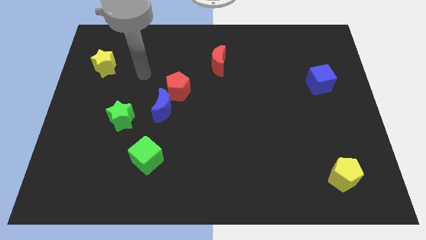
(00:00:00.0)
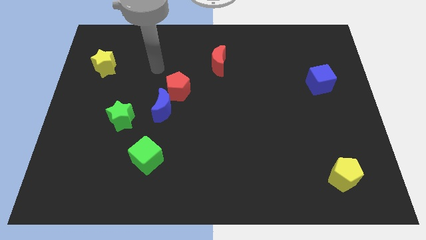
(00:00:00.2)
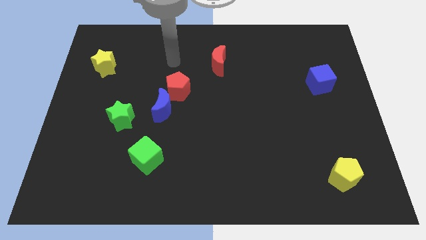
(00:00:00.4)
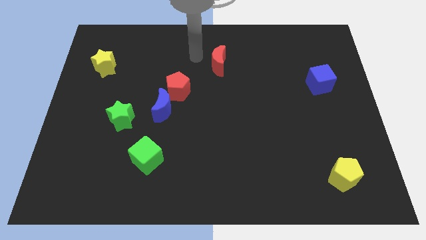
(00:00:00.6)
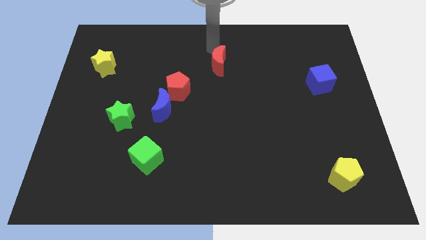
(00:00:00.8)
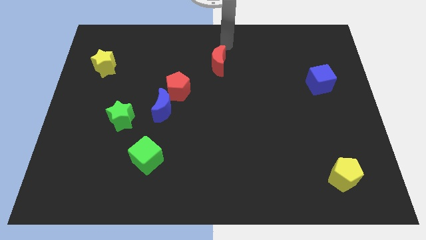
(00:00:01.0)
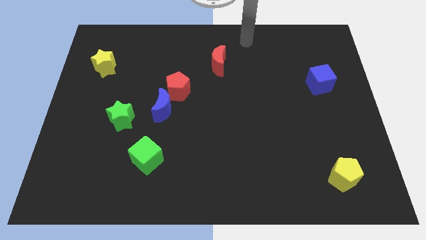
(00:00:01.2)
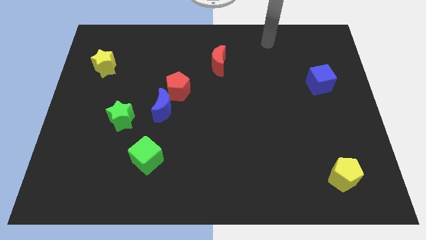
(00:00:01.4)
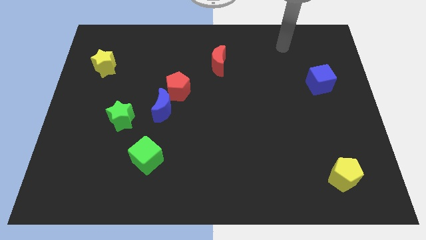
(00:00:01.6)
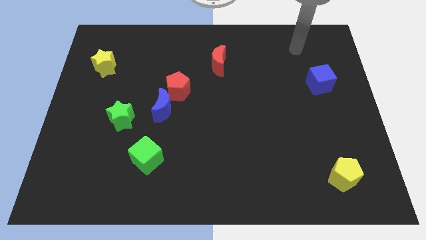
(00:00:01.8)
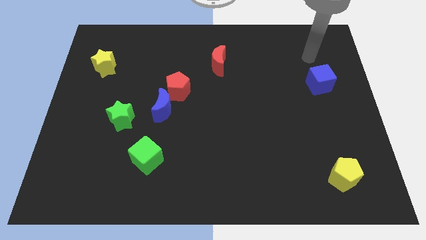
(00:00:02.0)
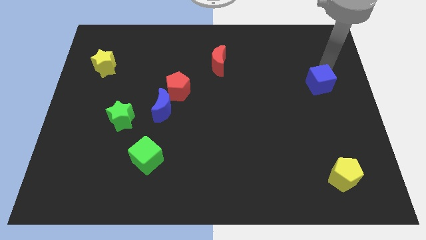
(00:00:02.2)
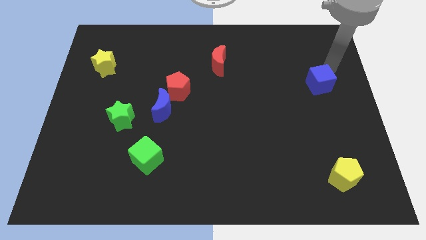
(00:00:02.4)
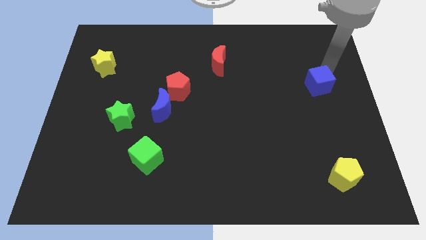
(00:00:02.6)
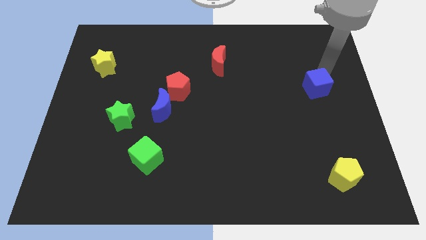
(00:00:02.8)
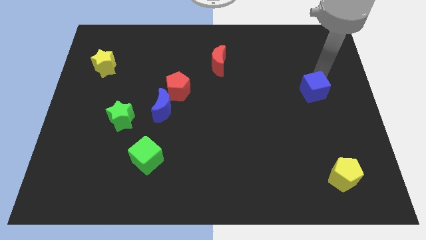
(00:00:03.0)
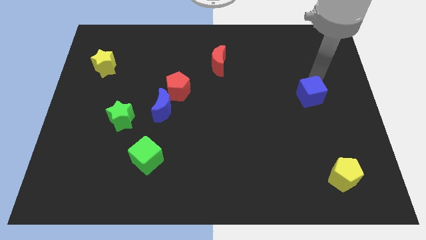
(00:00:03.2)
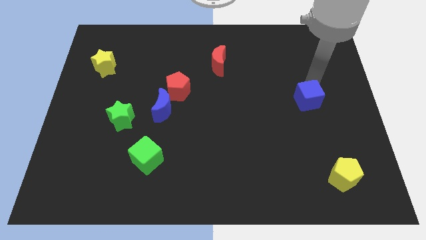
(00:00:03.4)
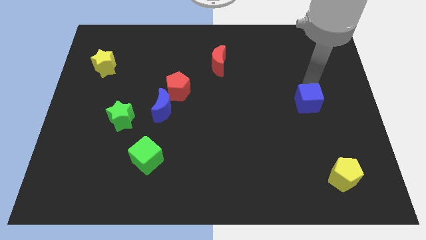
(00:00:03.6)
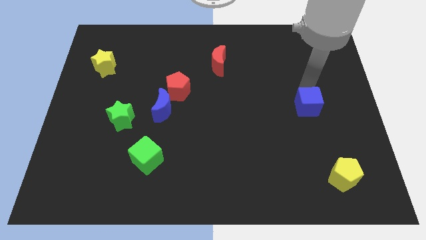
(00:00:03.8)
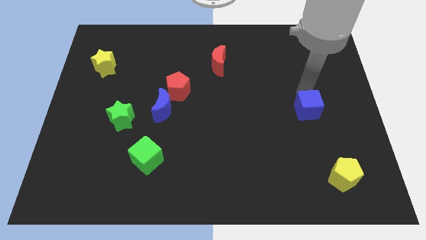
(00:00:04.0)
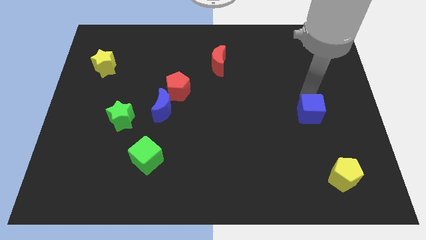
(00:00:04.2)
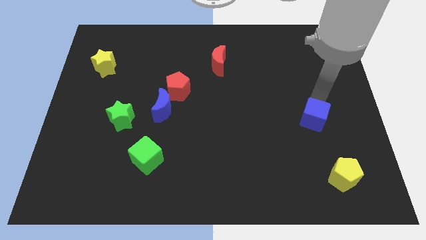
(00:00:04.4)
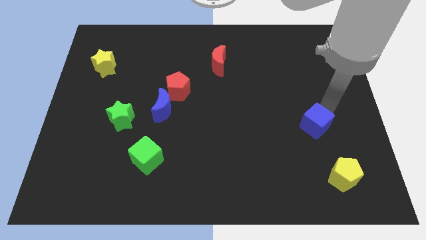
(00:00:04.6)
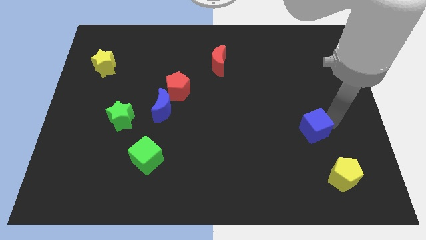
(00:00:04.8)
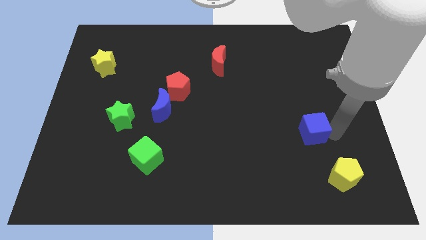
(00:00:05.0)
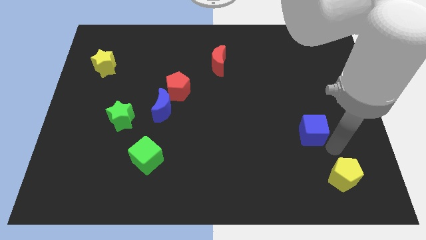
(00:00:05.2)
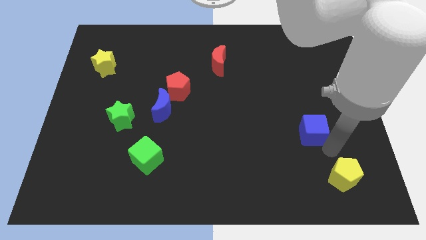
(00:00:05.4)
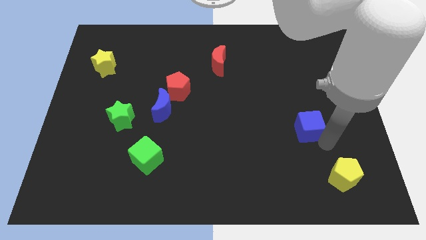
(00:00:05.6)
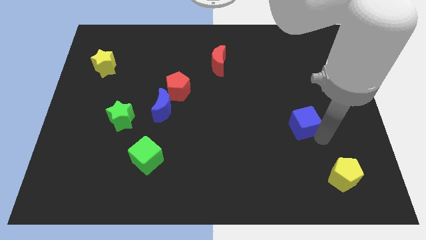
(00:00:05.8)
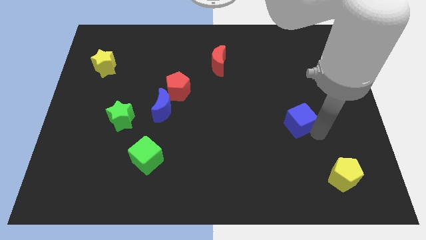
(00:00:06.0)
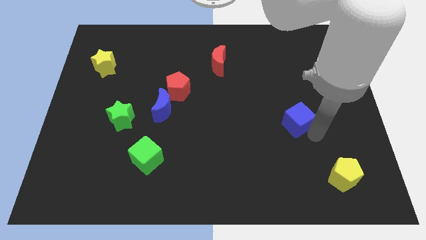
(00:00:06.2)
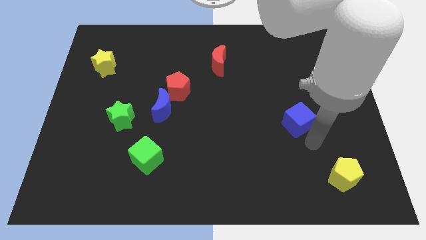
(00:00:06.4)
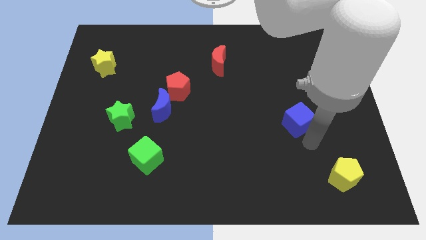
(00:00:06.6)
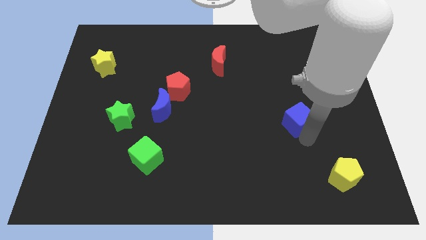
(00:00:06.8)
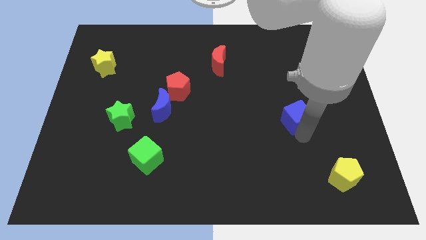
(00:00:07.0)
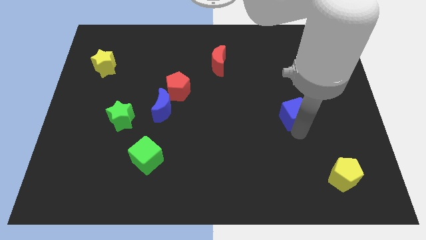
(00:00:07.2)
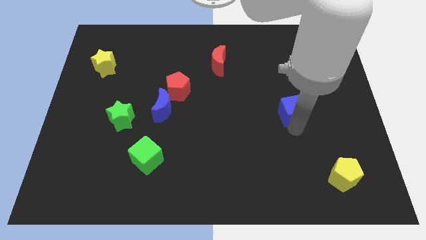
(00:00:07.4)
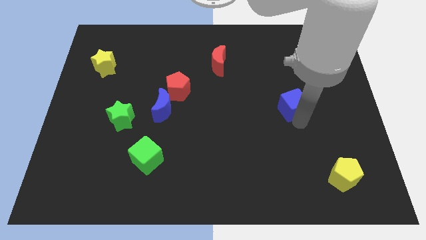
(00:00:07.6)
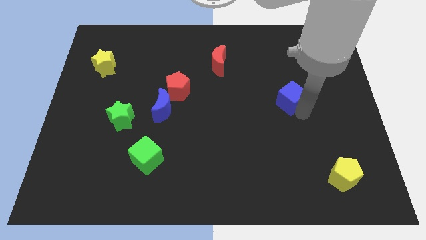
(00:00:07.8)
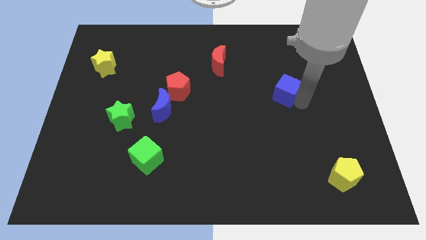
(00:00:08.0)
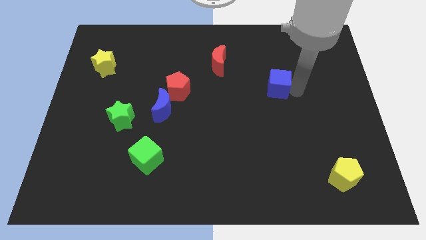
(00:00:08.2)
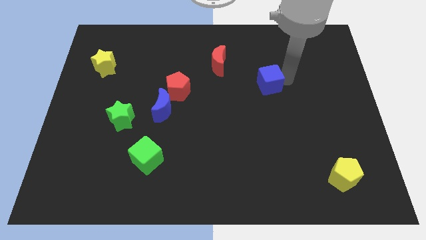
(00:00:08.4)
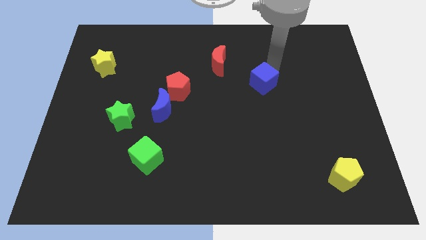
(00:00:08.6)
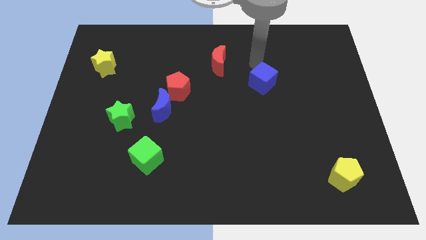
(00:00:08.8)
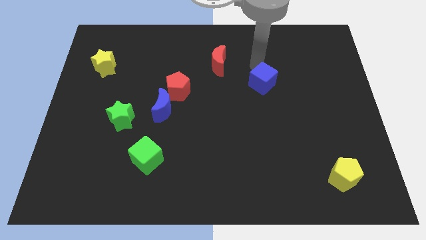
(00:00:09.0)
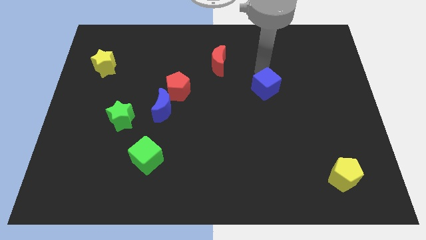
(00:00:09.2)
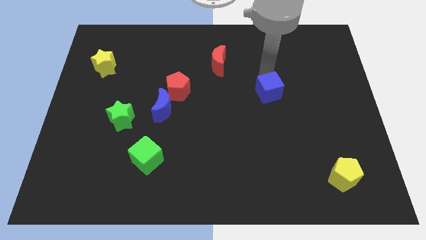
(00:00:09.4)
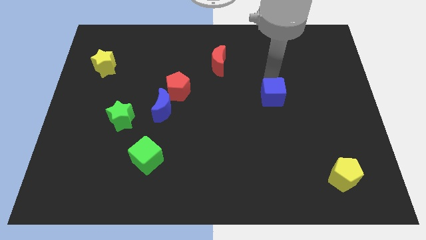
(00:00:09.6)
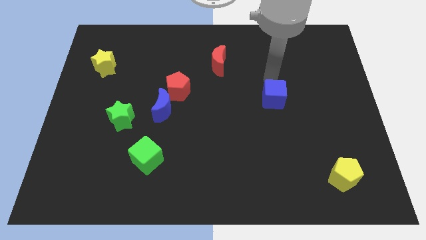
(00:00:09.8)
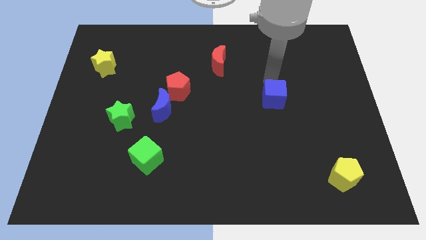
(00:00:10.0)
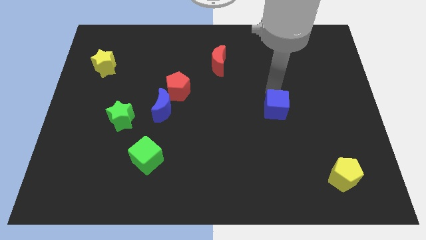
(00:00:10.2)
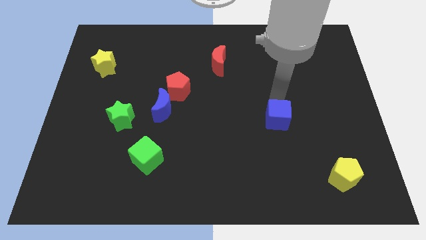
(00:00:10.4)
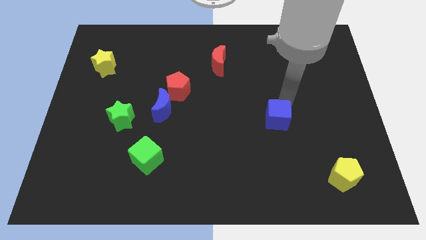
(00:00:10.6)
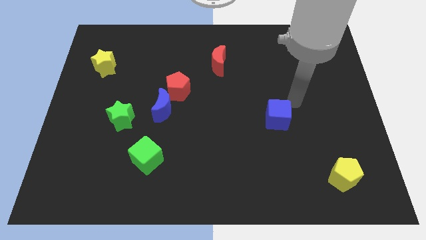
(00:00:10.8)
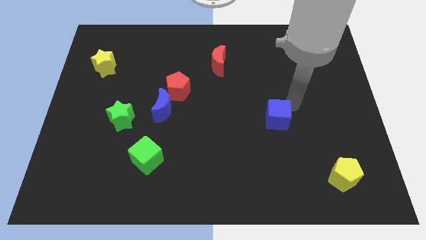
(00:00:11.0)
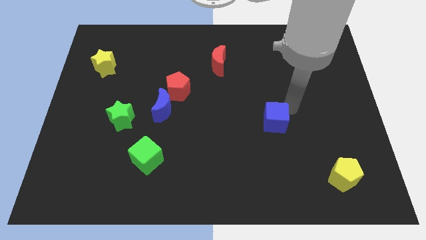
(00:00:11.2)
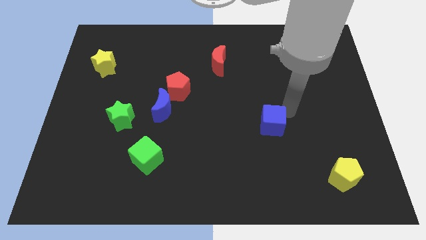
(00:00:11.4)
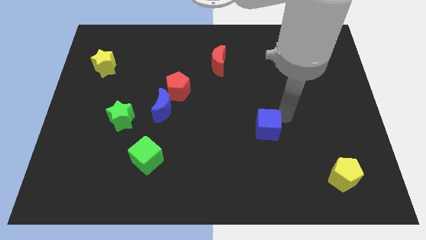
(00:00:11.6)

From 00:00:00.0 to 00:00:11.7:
move the blue cube down and to the left diagonally

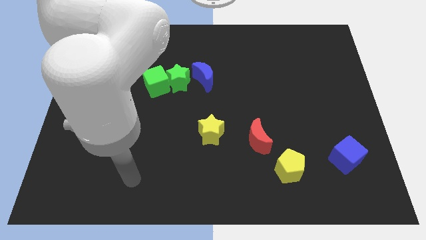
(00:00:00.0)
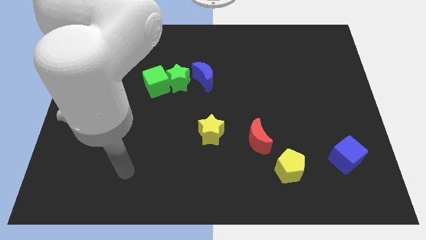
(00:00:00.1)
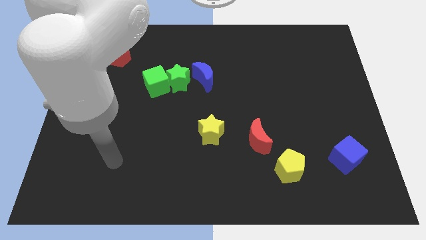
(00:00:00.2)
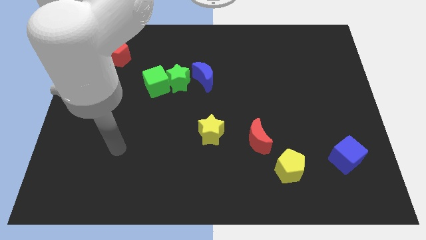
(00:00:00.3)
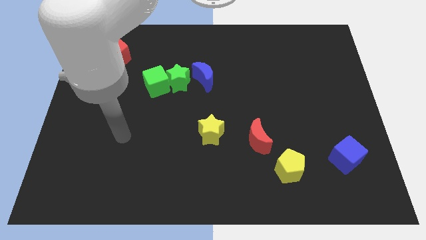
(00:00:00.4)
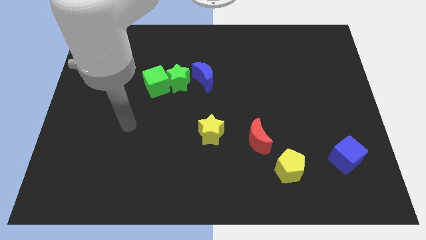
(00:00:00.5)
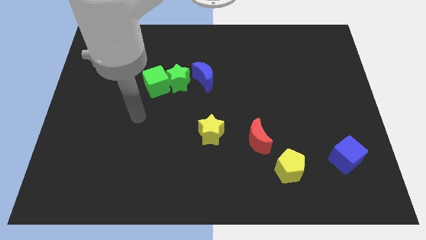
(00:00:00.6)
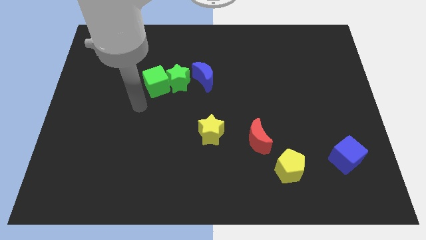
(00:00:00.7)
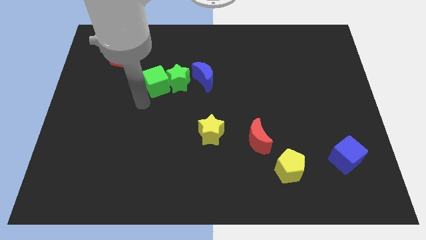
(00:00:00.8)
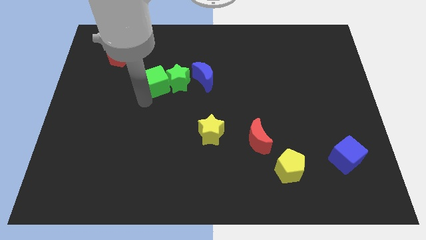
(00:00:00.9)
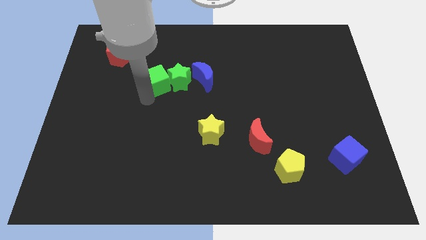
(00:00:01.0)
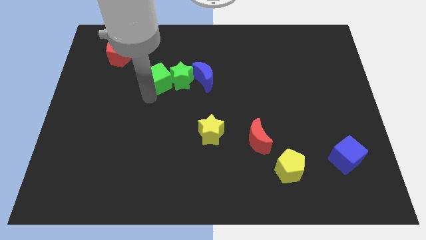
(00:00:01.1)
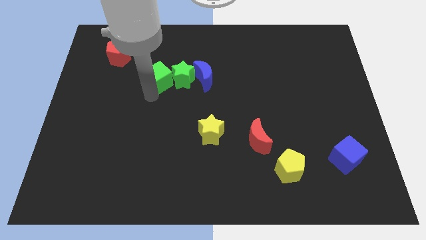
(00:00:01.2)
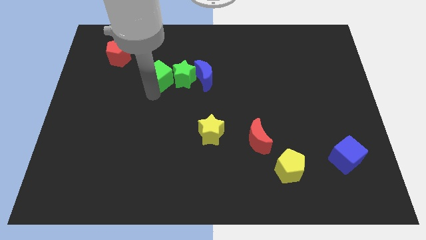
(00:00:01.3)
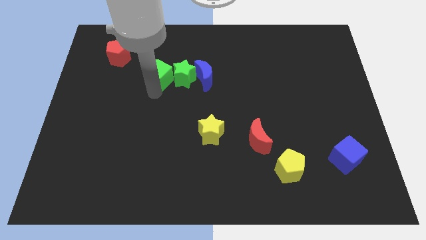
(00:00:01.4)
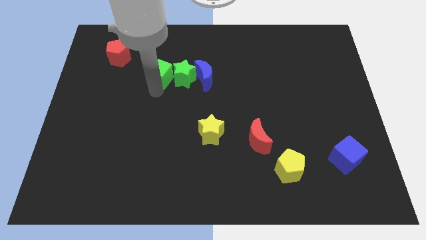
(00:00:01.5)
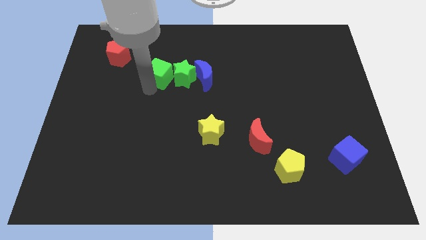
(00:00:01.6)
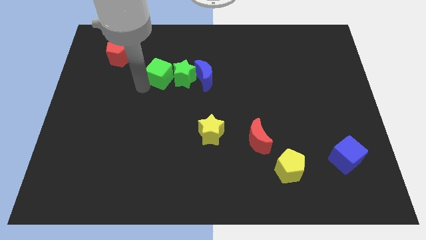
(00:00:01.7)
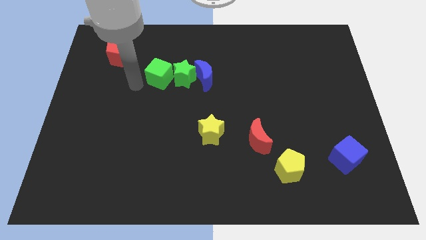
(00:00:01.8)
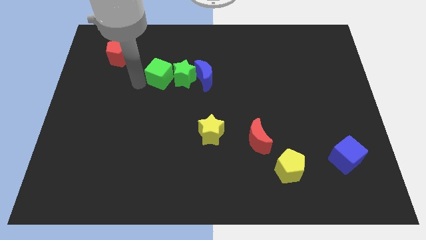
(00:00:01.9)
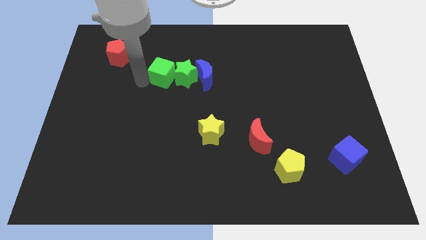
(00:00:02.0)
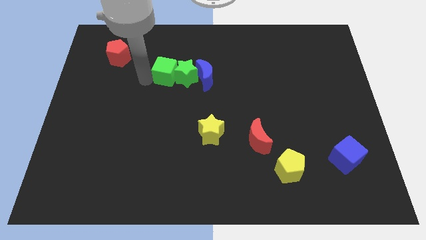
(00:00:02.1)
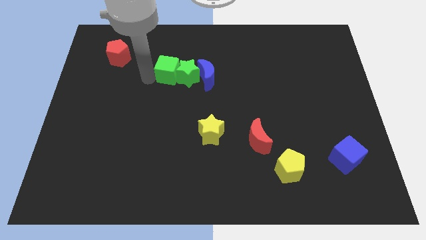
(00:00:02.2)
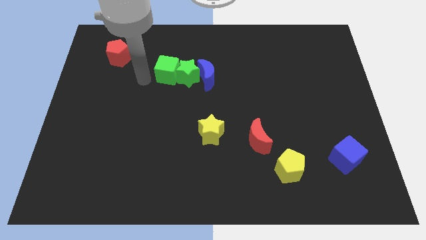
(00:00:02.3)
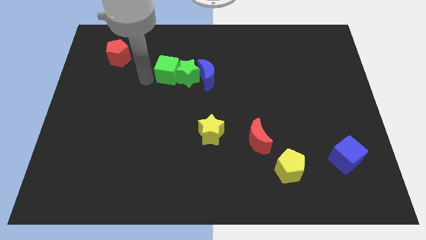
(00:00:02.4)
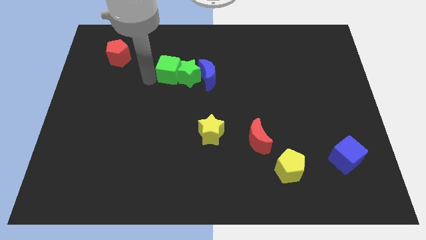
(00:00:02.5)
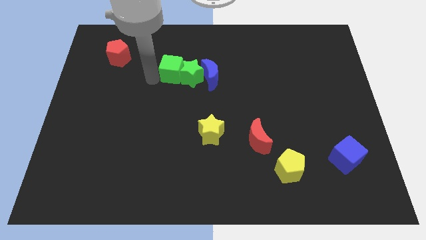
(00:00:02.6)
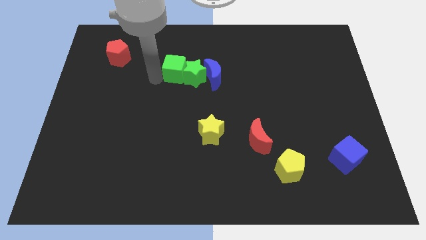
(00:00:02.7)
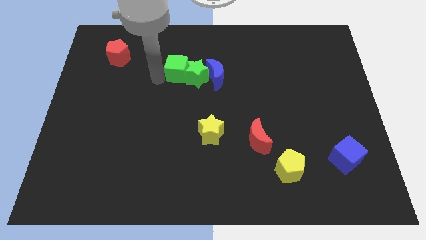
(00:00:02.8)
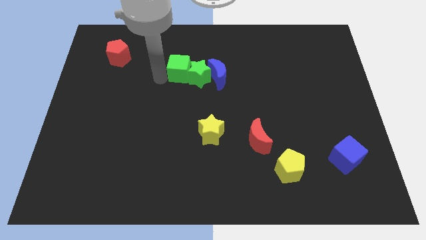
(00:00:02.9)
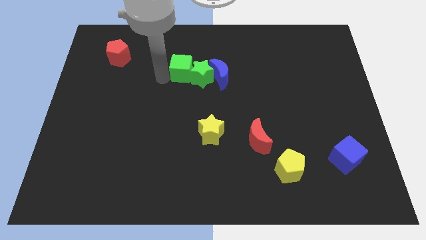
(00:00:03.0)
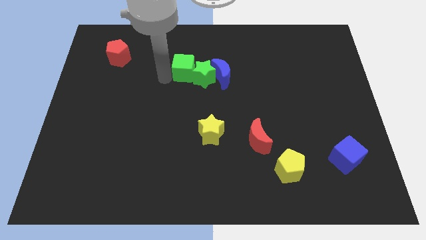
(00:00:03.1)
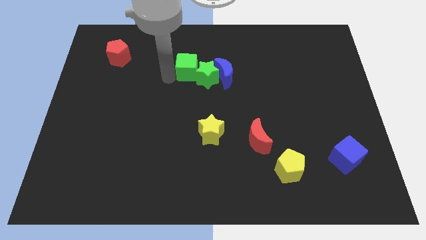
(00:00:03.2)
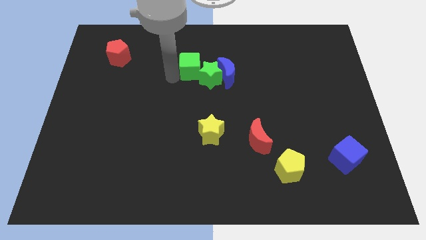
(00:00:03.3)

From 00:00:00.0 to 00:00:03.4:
slightly move the green cube to the right
